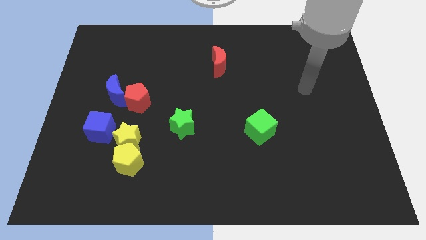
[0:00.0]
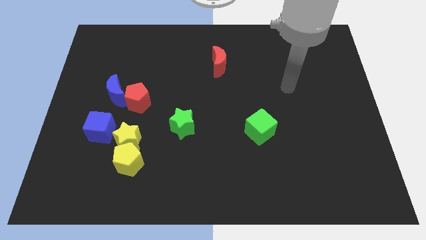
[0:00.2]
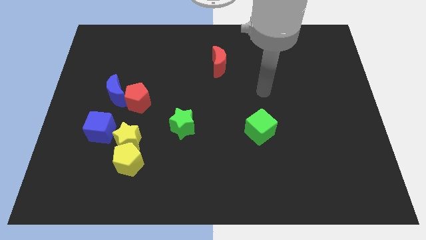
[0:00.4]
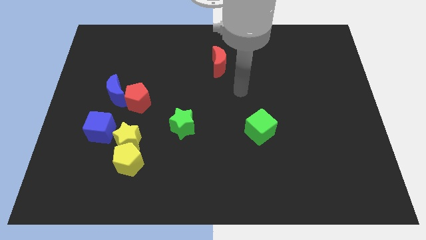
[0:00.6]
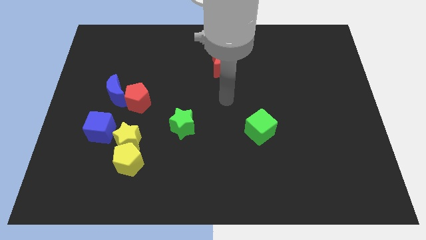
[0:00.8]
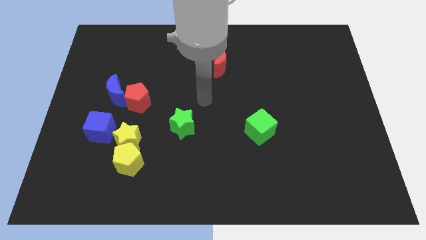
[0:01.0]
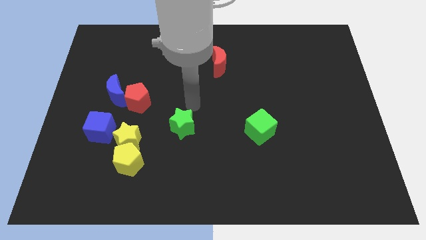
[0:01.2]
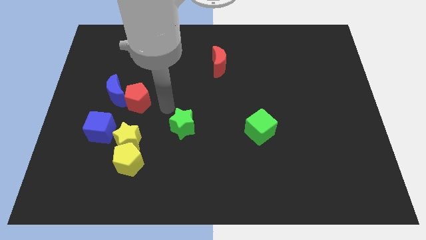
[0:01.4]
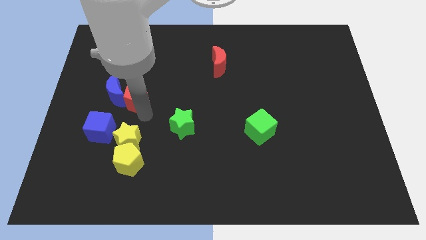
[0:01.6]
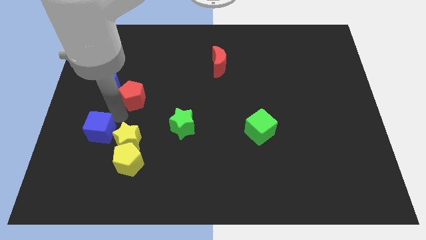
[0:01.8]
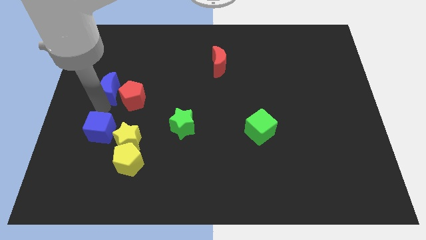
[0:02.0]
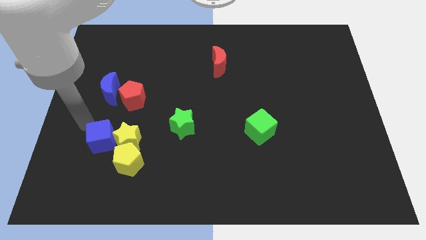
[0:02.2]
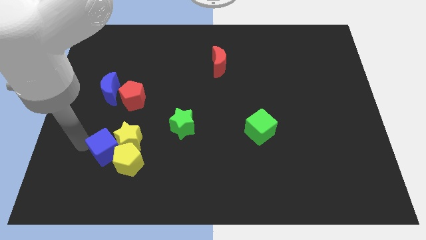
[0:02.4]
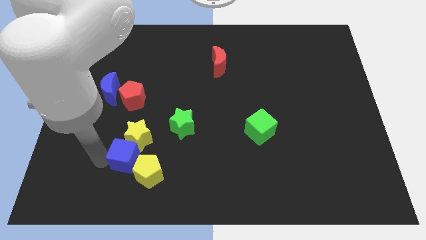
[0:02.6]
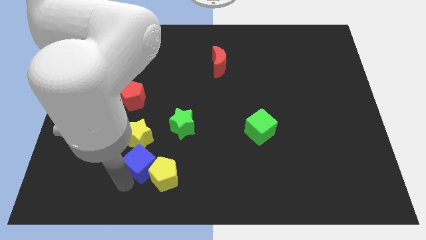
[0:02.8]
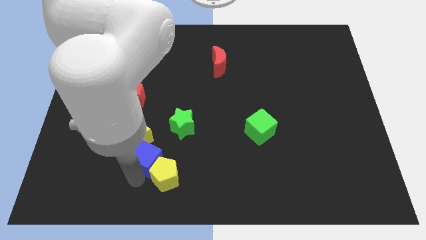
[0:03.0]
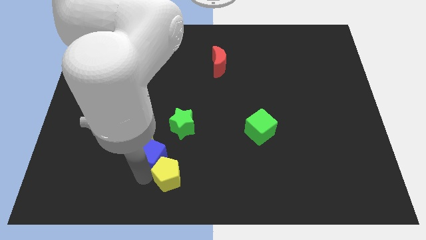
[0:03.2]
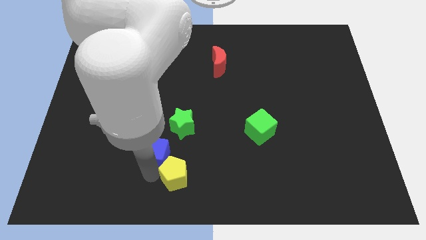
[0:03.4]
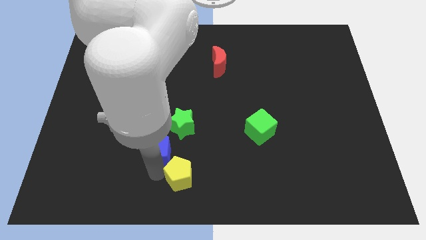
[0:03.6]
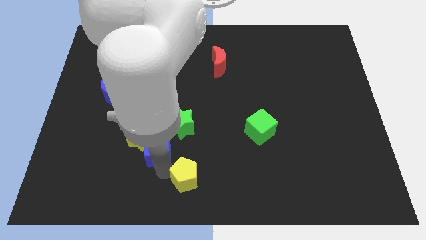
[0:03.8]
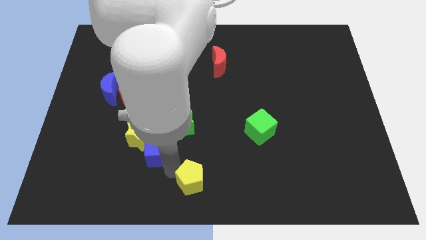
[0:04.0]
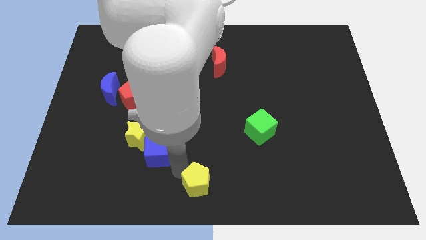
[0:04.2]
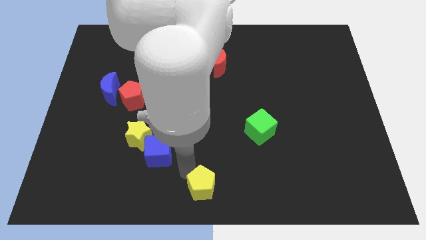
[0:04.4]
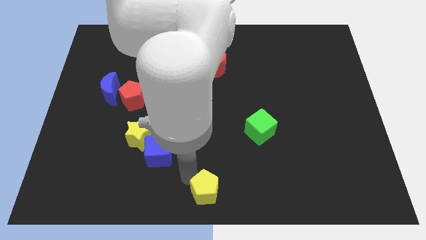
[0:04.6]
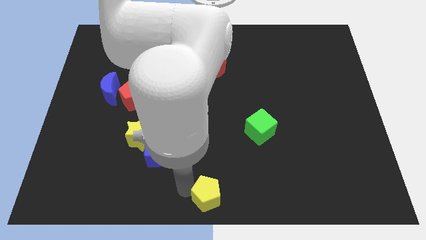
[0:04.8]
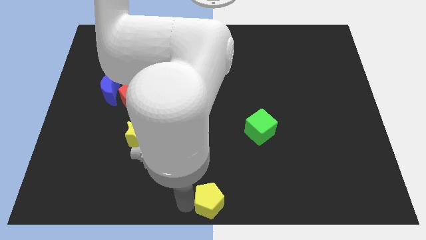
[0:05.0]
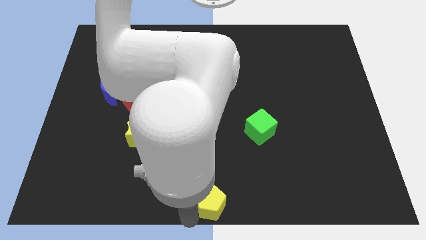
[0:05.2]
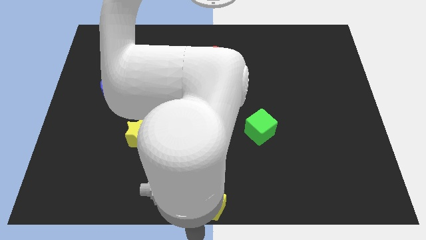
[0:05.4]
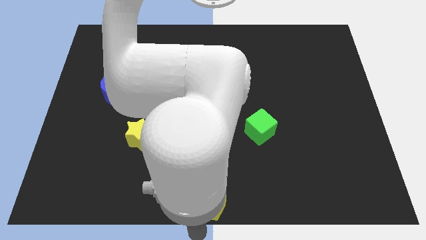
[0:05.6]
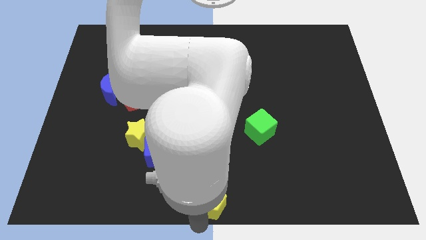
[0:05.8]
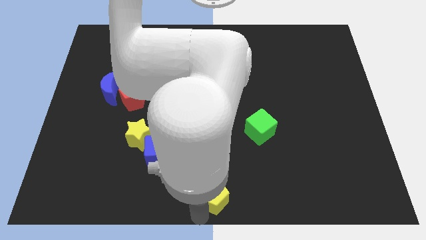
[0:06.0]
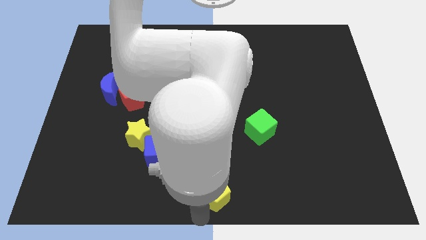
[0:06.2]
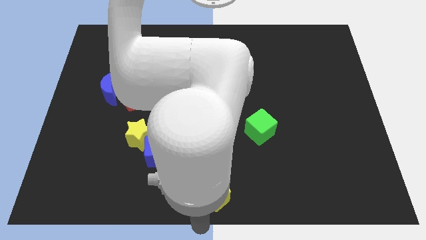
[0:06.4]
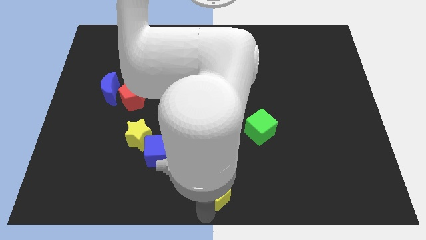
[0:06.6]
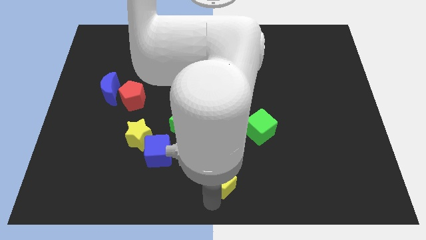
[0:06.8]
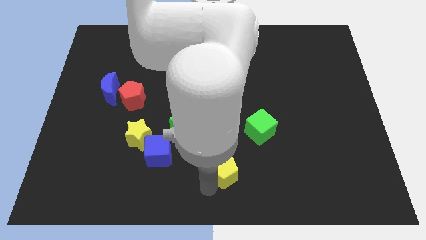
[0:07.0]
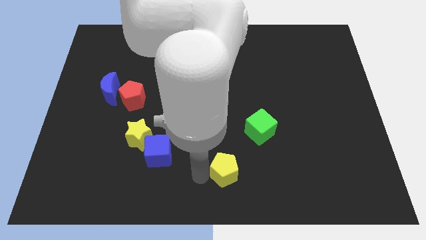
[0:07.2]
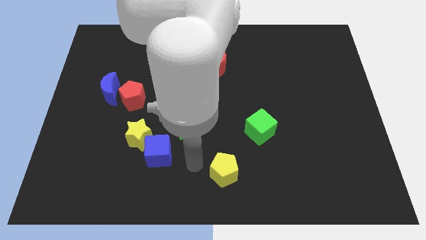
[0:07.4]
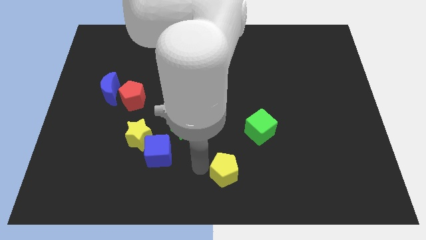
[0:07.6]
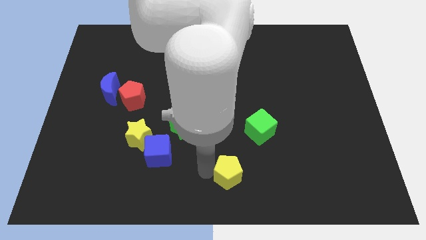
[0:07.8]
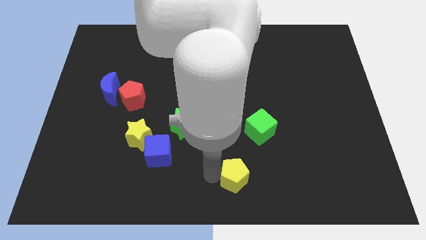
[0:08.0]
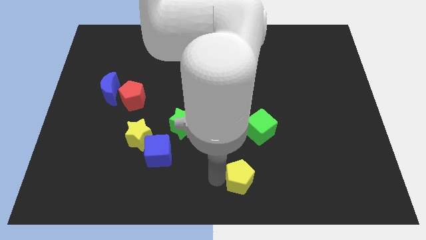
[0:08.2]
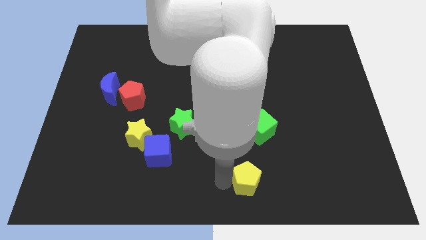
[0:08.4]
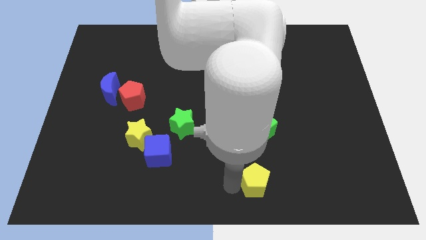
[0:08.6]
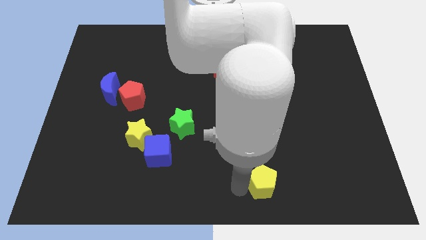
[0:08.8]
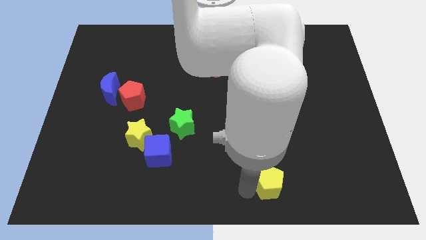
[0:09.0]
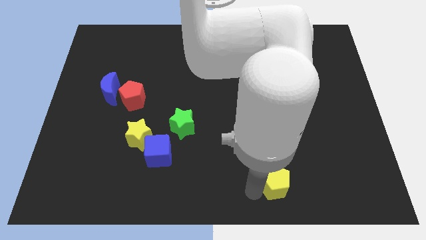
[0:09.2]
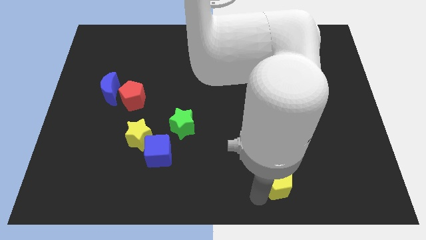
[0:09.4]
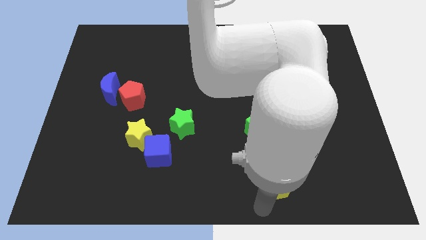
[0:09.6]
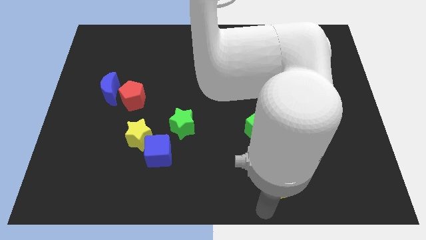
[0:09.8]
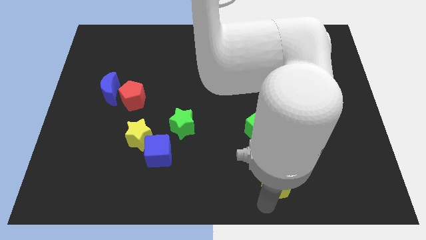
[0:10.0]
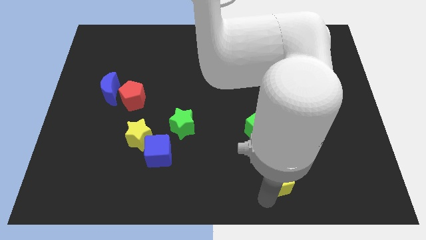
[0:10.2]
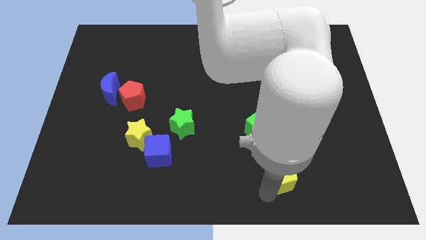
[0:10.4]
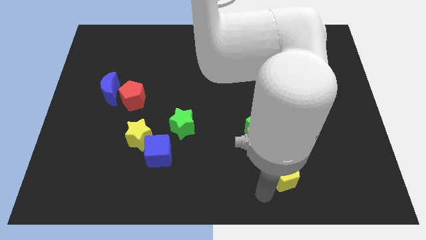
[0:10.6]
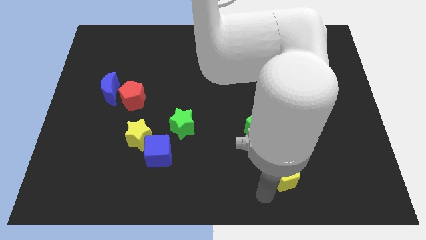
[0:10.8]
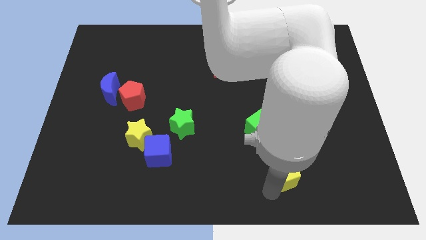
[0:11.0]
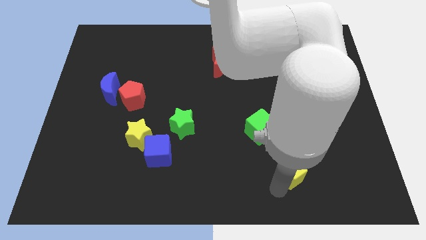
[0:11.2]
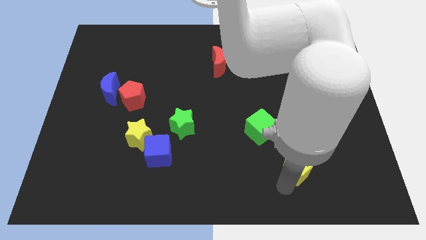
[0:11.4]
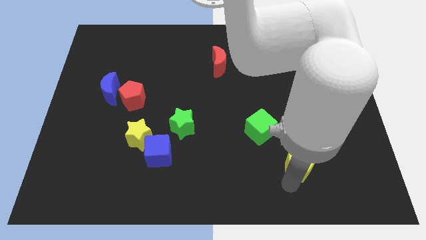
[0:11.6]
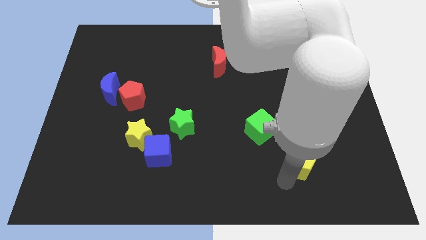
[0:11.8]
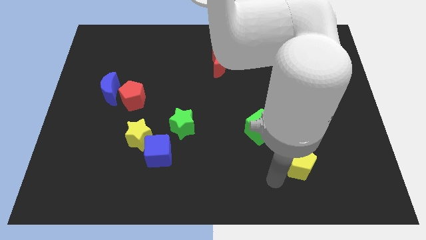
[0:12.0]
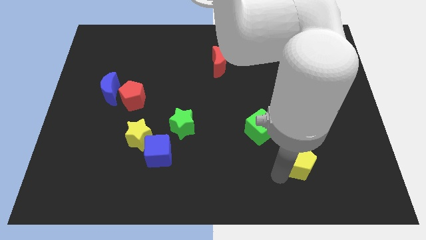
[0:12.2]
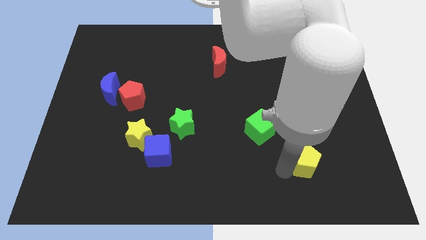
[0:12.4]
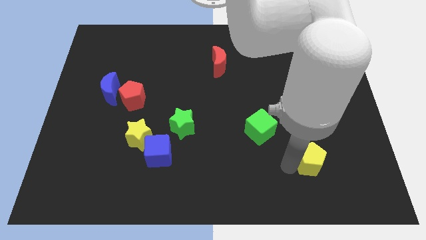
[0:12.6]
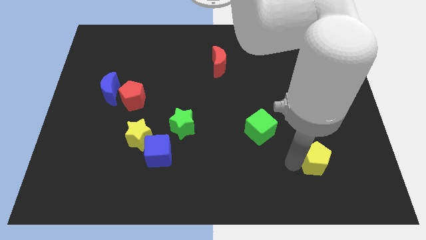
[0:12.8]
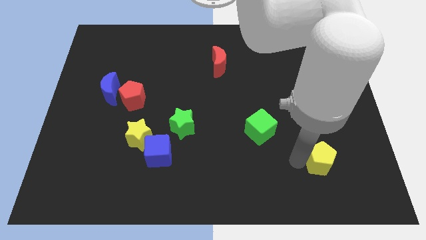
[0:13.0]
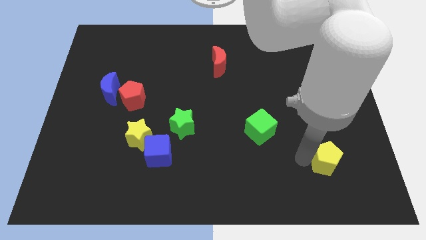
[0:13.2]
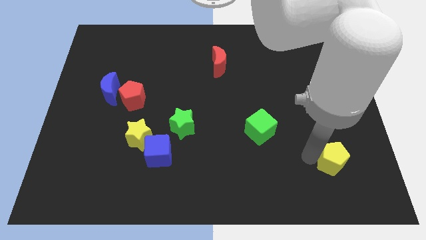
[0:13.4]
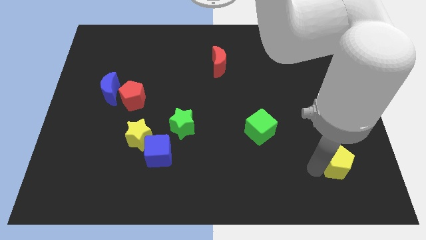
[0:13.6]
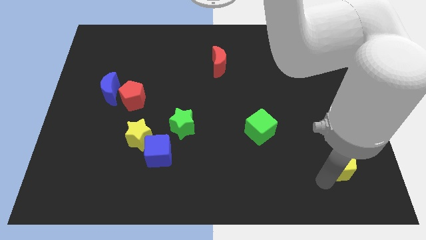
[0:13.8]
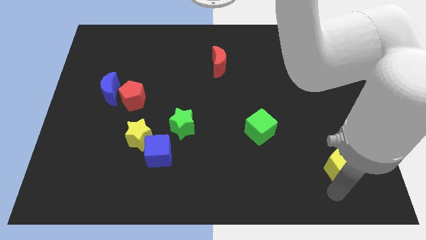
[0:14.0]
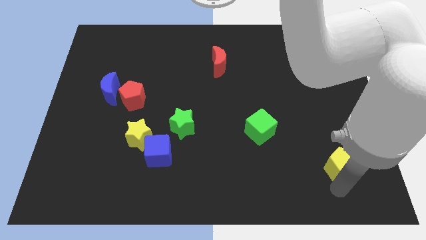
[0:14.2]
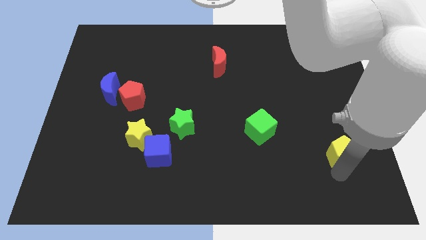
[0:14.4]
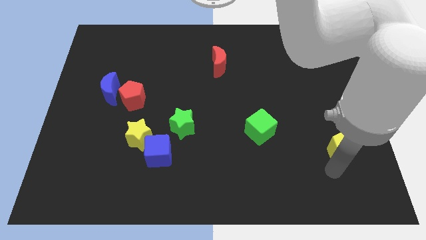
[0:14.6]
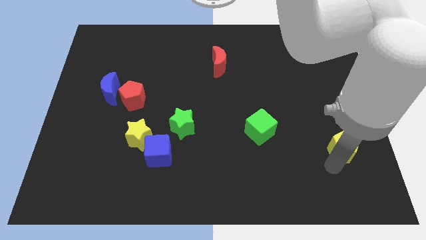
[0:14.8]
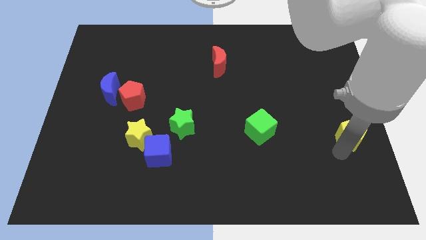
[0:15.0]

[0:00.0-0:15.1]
put the yellow pentagon to the right side of the board
